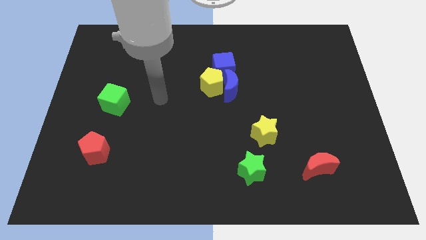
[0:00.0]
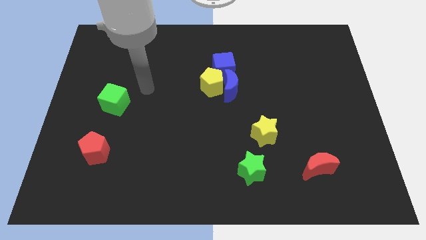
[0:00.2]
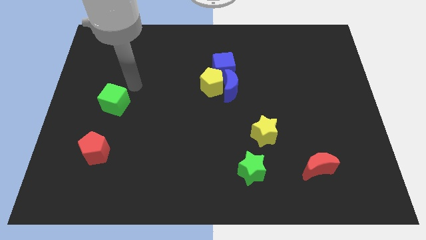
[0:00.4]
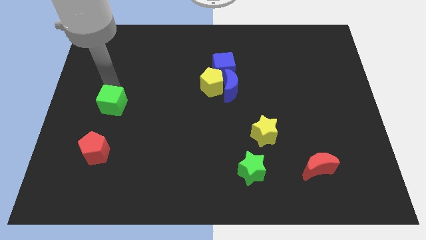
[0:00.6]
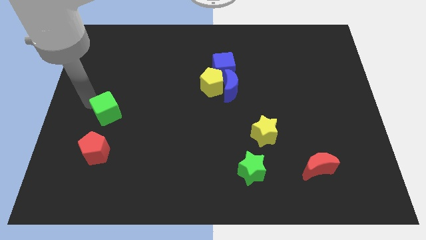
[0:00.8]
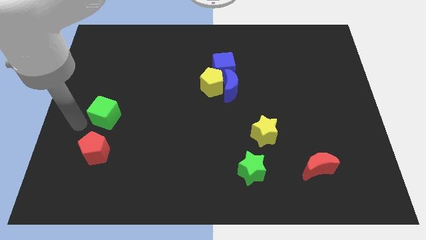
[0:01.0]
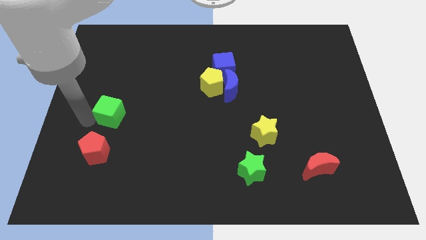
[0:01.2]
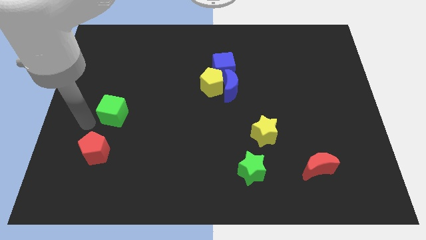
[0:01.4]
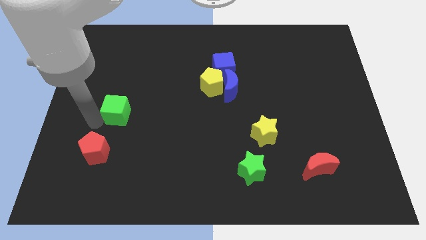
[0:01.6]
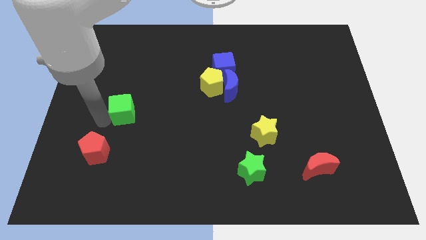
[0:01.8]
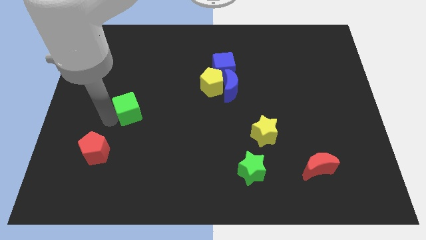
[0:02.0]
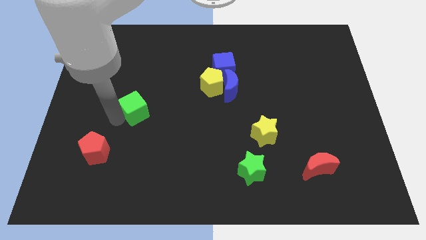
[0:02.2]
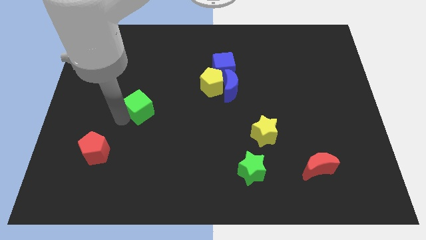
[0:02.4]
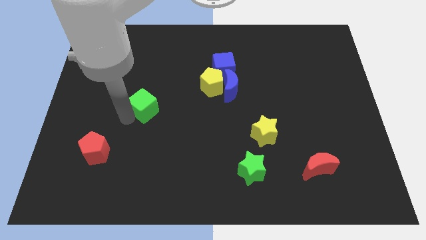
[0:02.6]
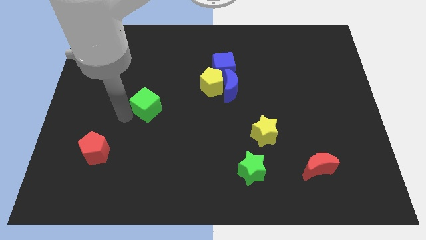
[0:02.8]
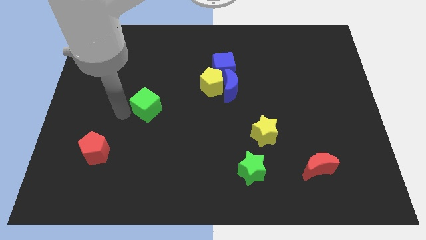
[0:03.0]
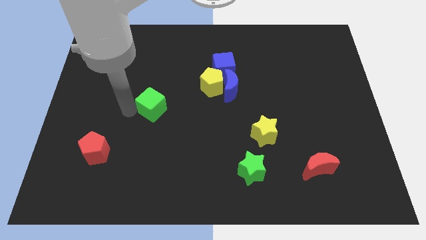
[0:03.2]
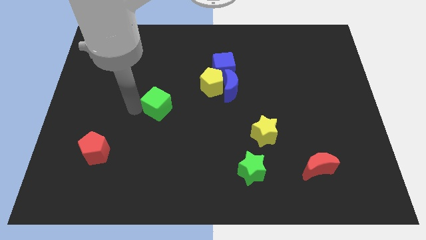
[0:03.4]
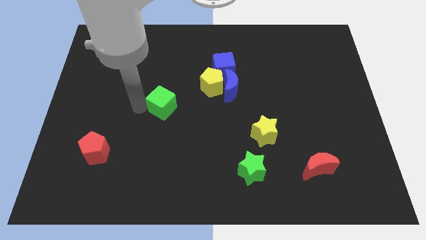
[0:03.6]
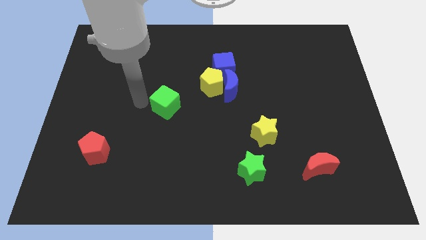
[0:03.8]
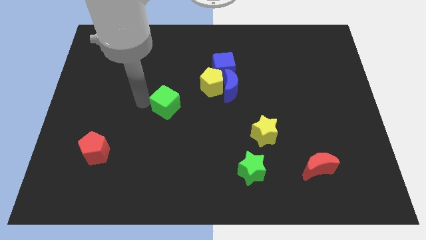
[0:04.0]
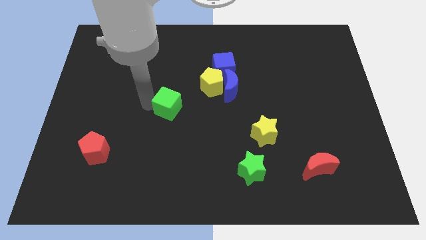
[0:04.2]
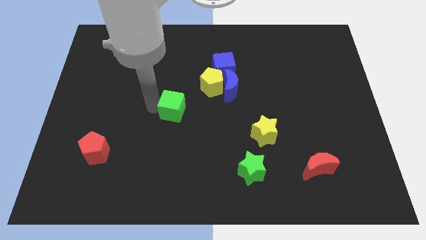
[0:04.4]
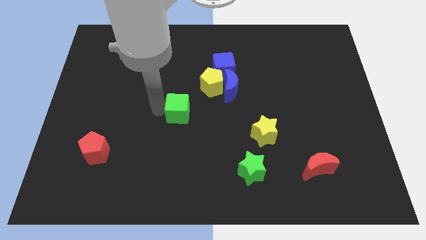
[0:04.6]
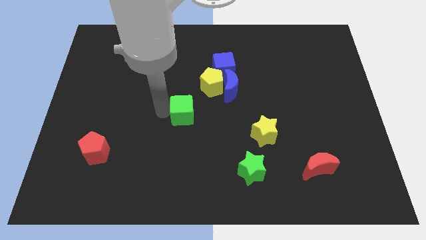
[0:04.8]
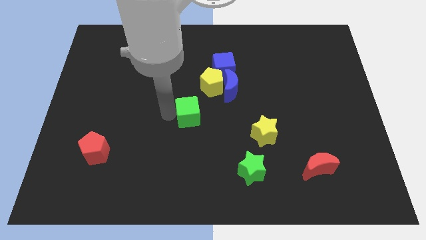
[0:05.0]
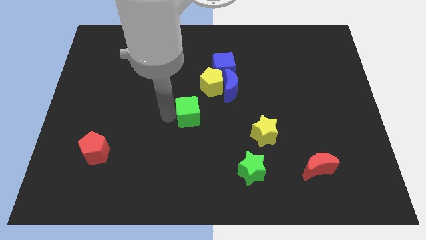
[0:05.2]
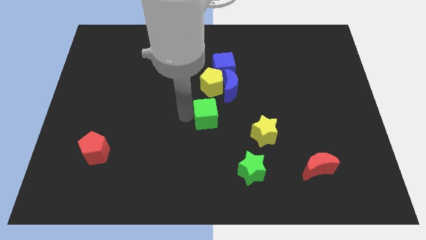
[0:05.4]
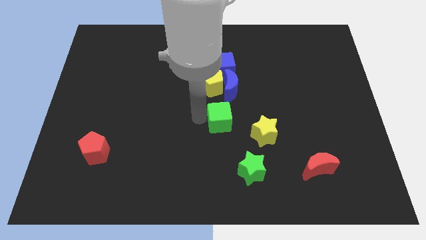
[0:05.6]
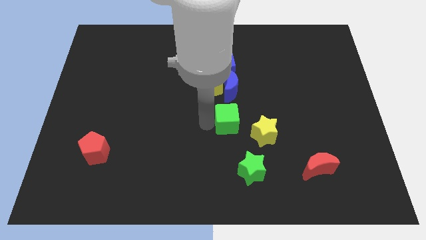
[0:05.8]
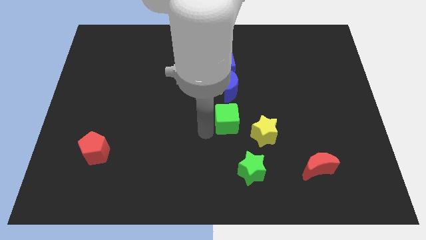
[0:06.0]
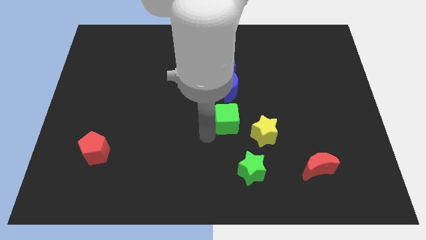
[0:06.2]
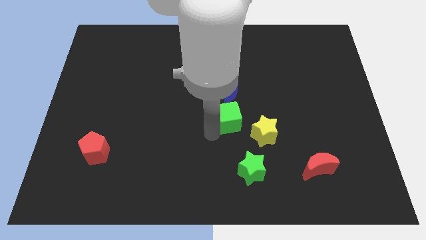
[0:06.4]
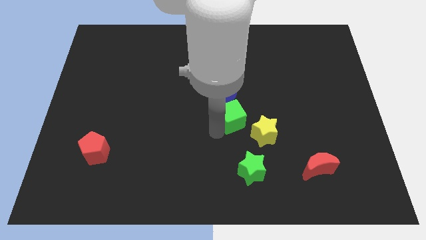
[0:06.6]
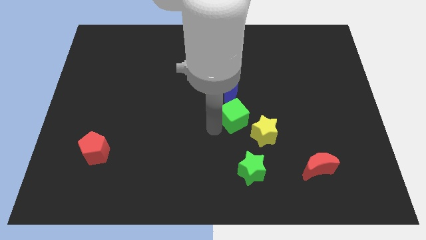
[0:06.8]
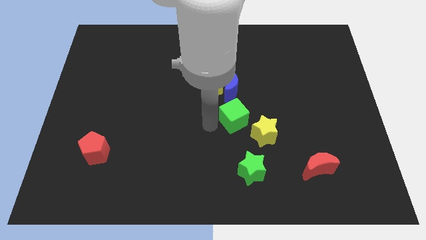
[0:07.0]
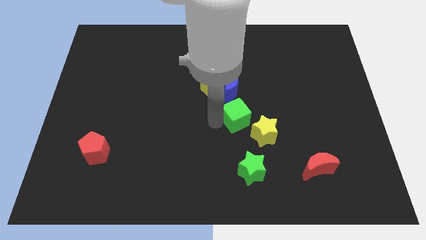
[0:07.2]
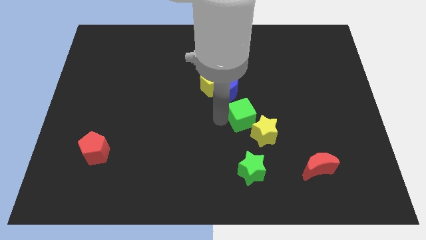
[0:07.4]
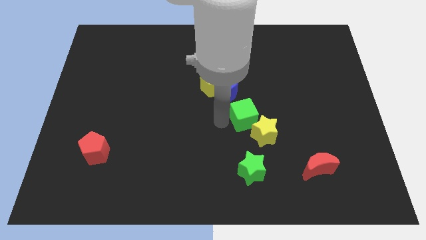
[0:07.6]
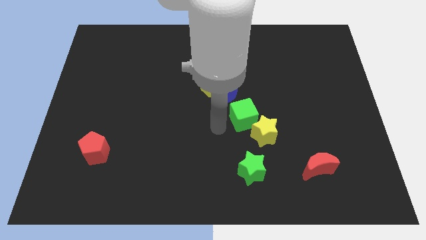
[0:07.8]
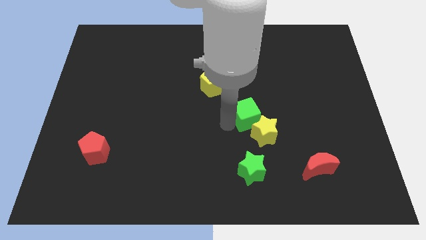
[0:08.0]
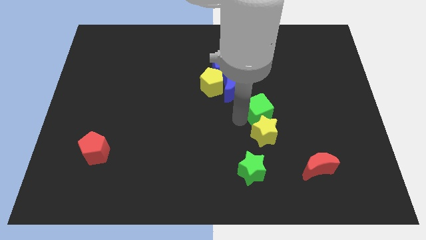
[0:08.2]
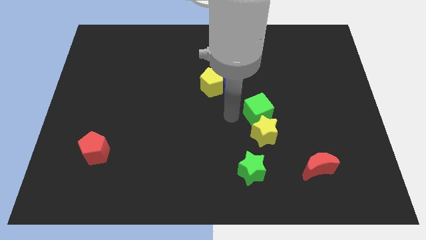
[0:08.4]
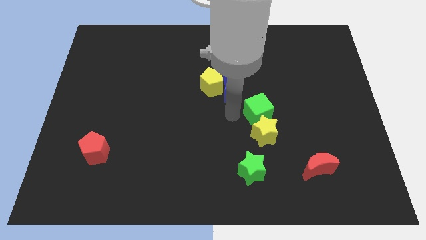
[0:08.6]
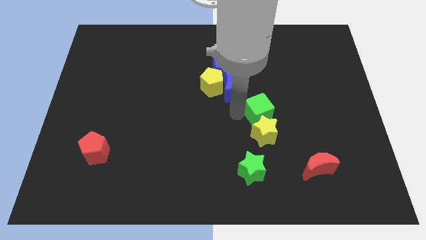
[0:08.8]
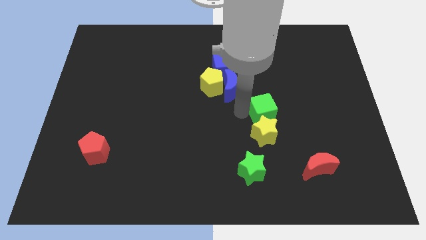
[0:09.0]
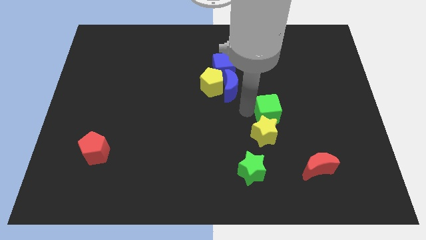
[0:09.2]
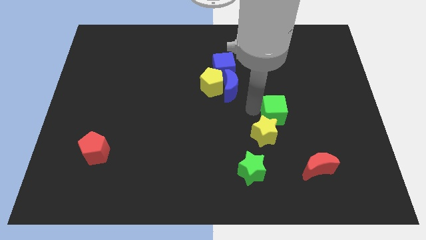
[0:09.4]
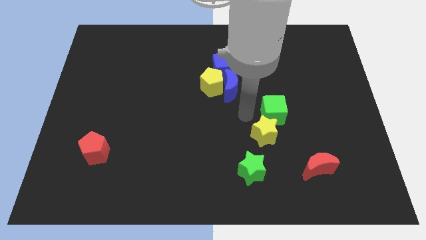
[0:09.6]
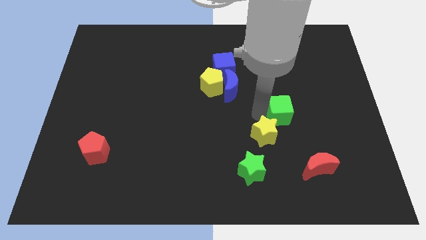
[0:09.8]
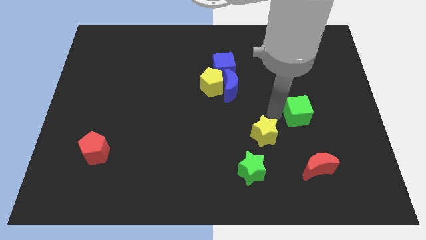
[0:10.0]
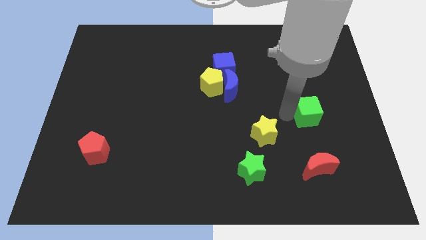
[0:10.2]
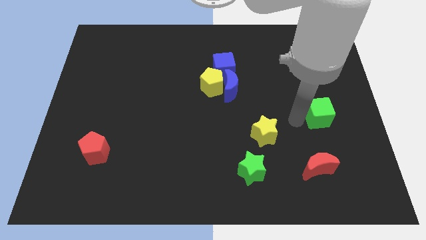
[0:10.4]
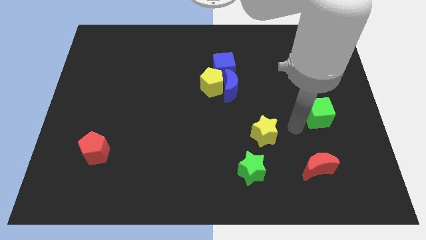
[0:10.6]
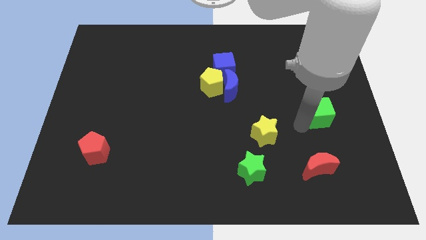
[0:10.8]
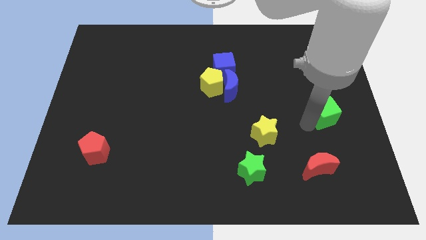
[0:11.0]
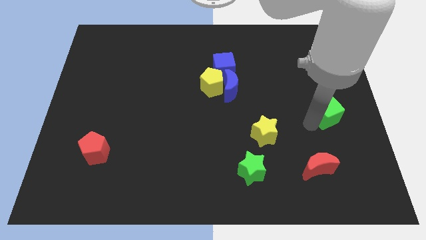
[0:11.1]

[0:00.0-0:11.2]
move the green cube to the right side of the board

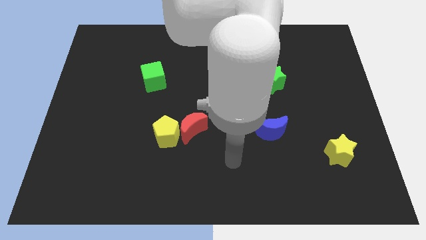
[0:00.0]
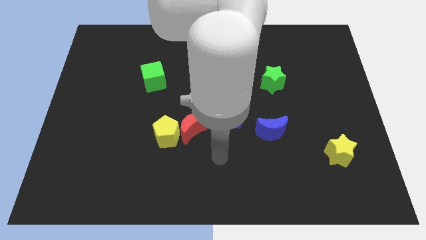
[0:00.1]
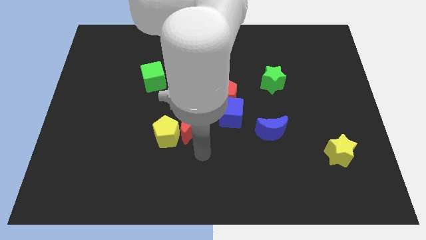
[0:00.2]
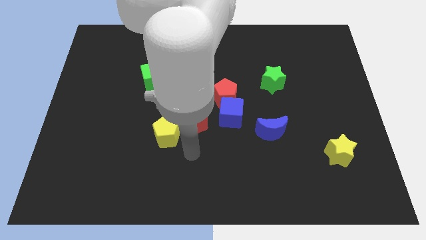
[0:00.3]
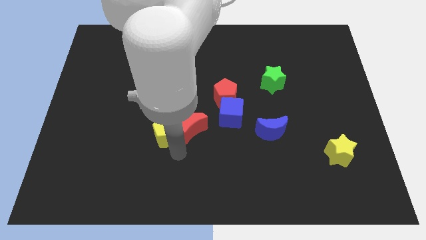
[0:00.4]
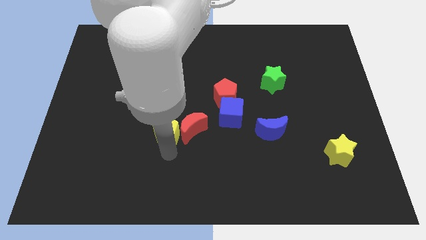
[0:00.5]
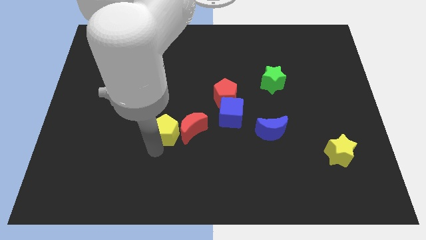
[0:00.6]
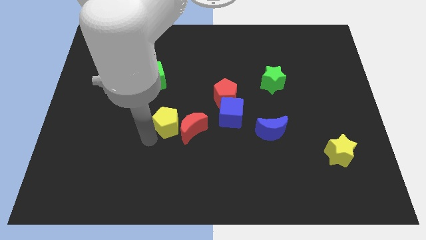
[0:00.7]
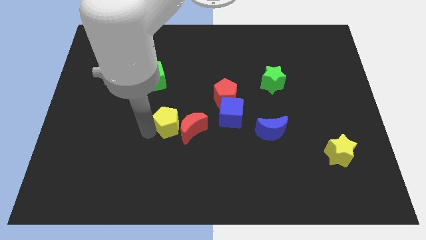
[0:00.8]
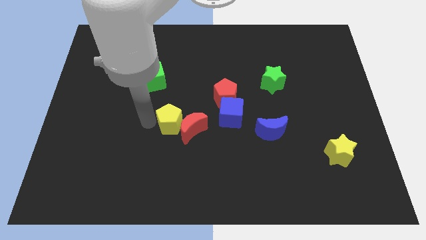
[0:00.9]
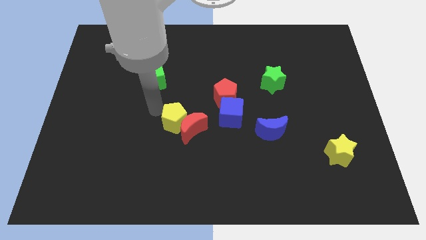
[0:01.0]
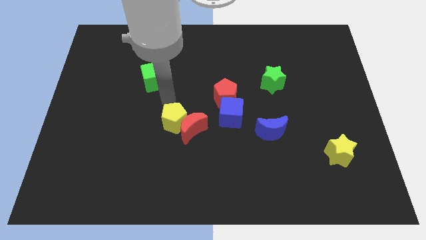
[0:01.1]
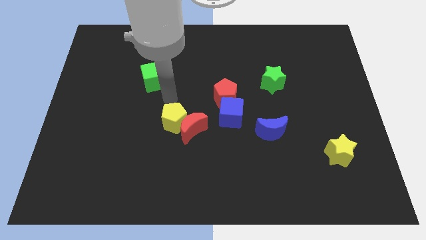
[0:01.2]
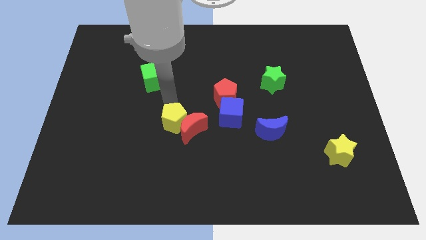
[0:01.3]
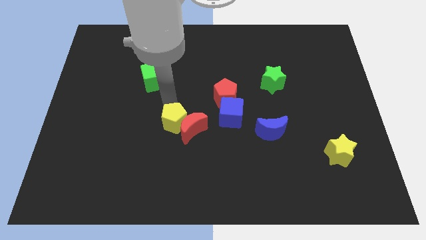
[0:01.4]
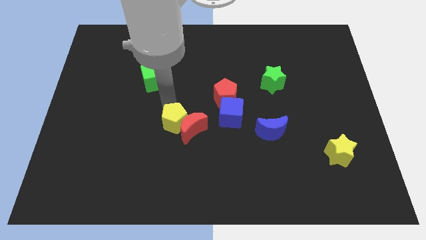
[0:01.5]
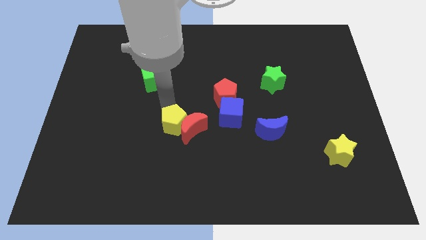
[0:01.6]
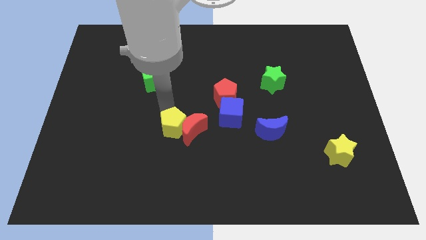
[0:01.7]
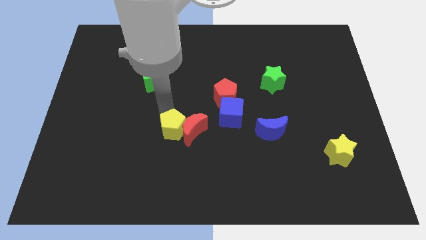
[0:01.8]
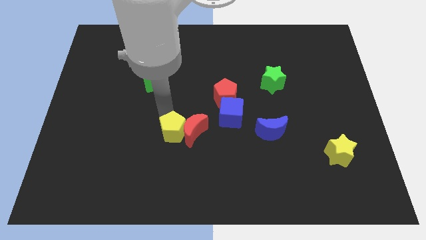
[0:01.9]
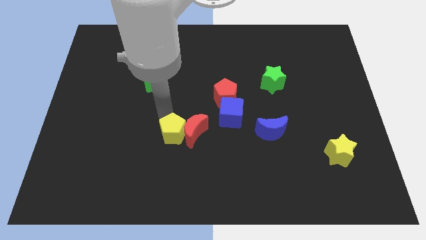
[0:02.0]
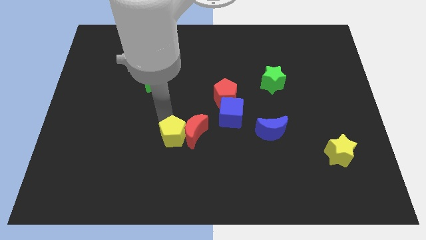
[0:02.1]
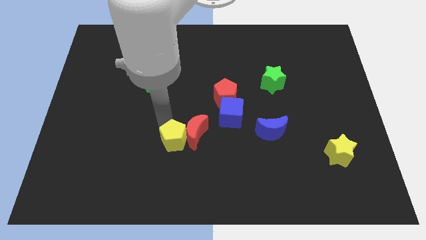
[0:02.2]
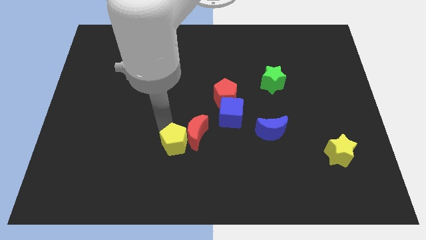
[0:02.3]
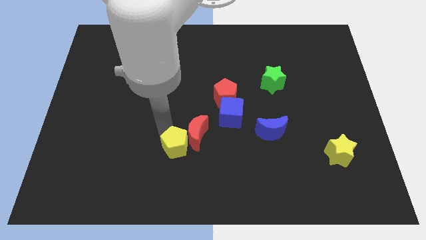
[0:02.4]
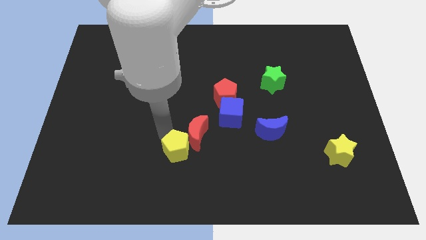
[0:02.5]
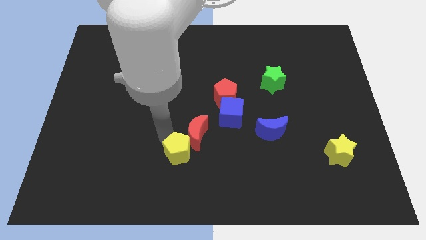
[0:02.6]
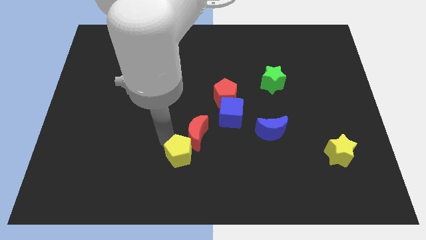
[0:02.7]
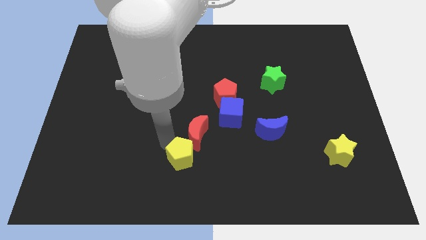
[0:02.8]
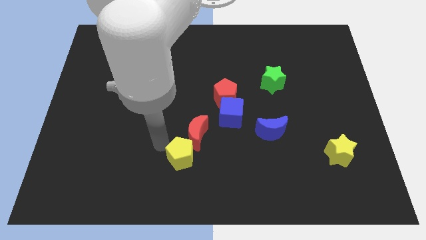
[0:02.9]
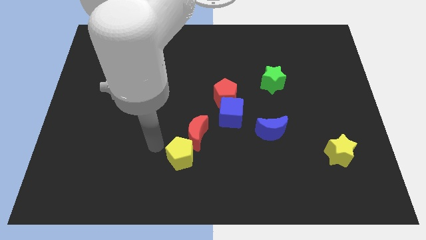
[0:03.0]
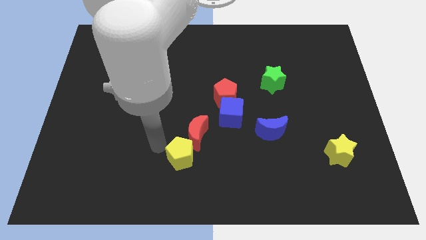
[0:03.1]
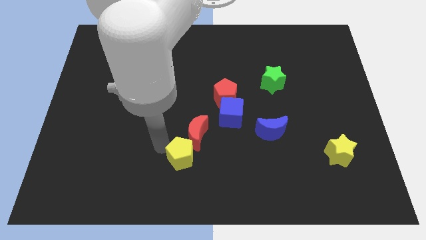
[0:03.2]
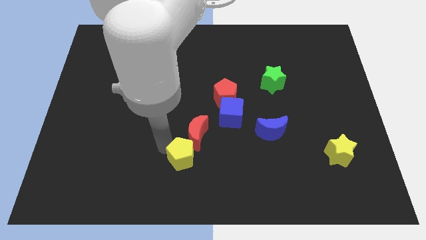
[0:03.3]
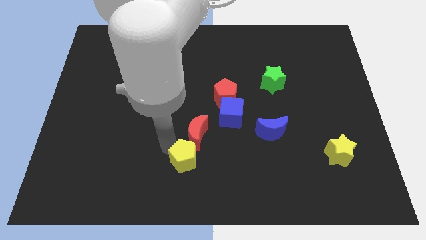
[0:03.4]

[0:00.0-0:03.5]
put the yellow pentagon to the bottom
